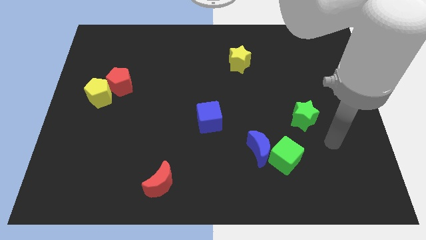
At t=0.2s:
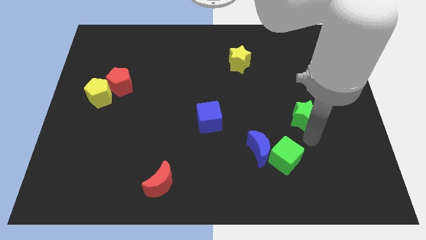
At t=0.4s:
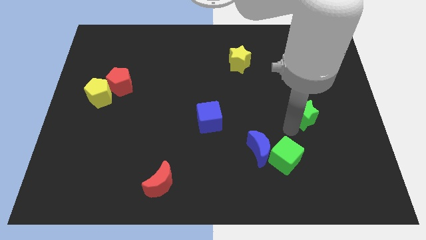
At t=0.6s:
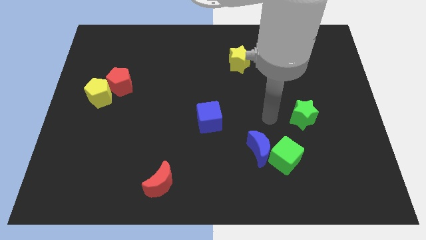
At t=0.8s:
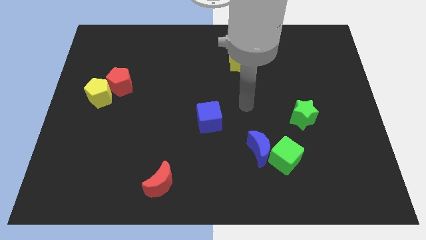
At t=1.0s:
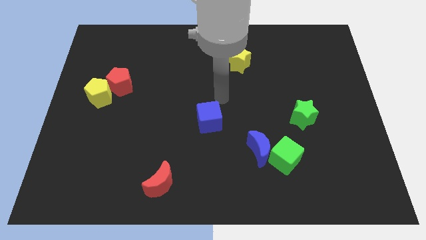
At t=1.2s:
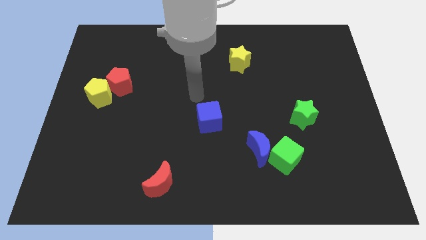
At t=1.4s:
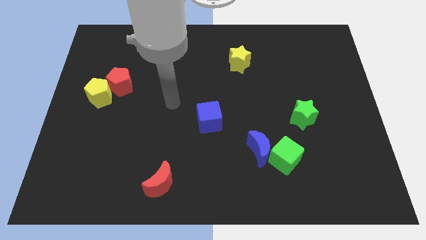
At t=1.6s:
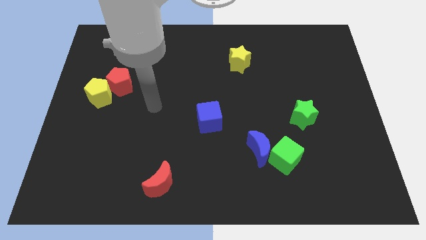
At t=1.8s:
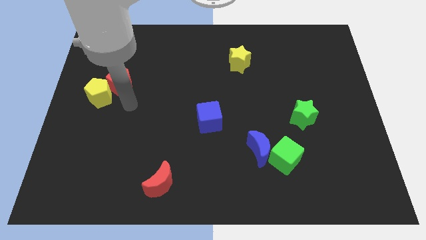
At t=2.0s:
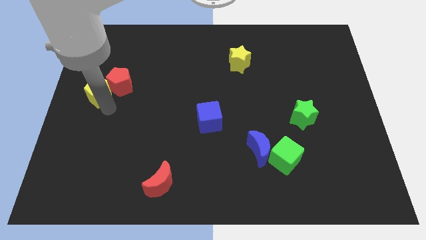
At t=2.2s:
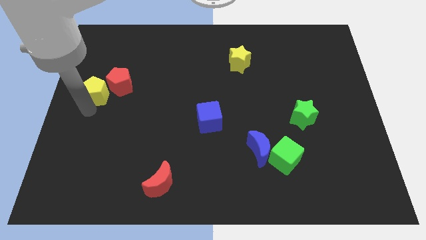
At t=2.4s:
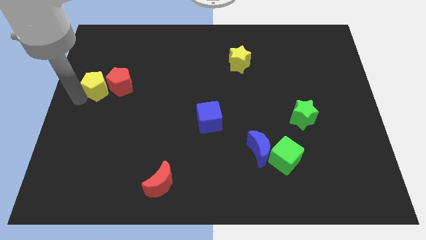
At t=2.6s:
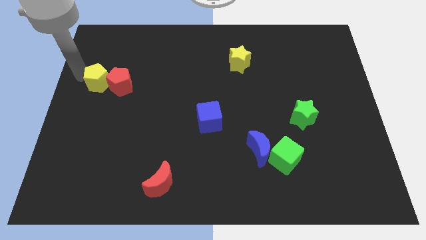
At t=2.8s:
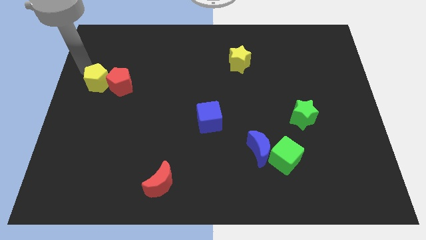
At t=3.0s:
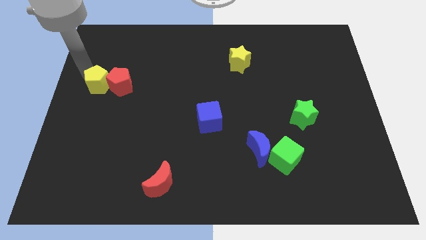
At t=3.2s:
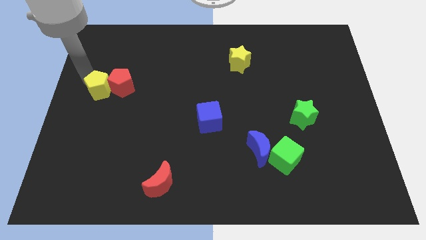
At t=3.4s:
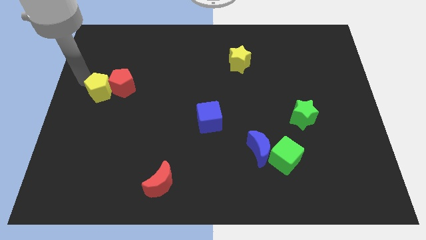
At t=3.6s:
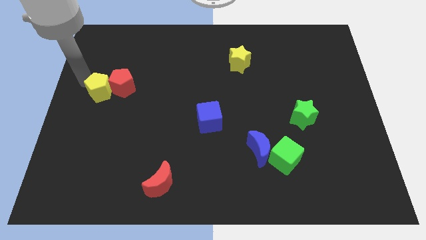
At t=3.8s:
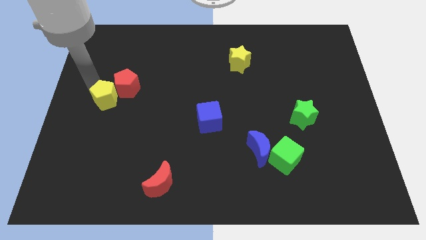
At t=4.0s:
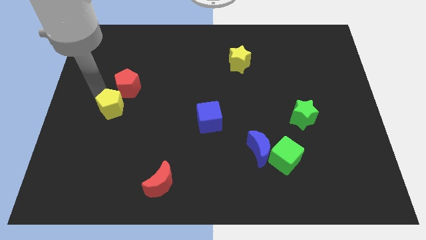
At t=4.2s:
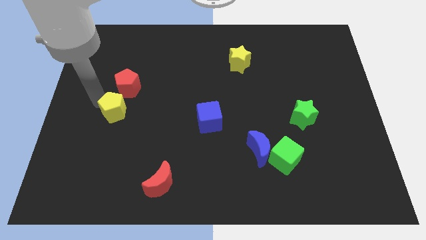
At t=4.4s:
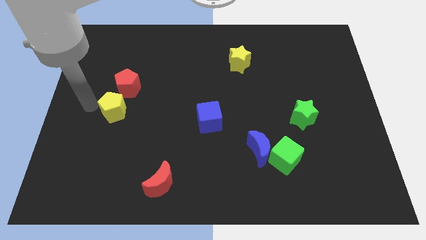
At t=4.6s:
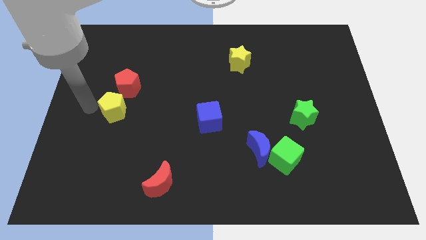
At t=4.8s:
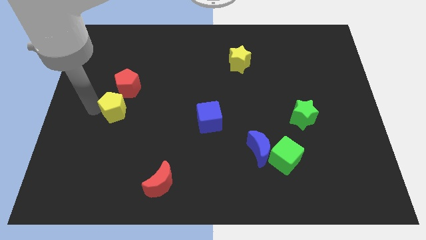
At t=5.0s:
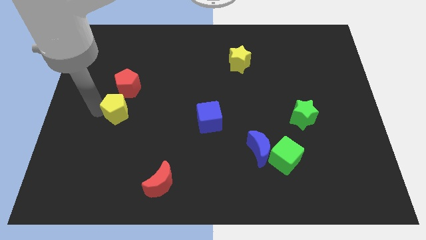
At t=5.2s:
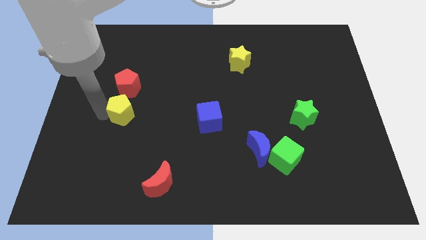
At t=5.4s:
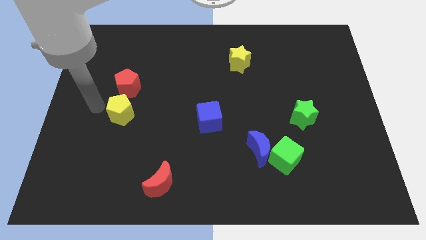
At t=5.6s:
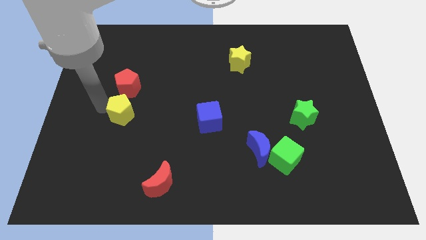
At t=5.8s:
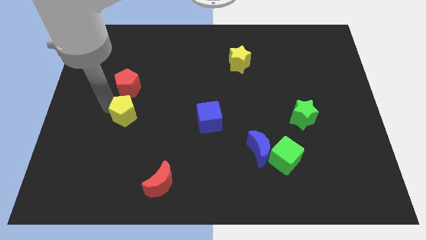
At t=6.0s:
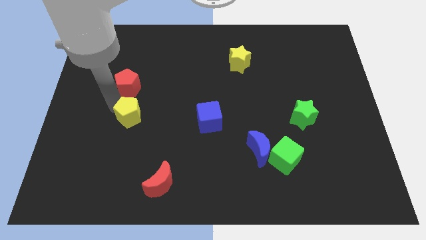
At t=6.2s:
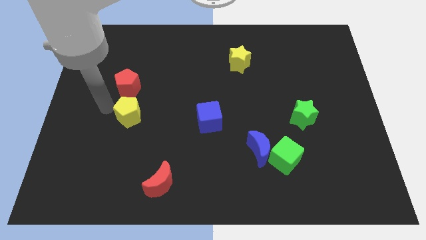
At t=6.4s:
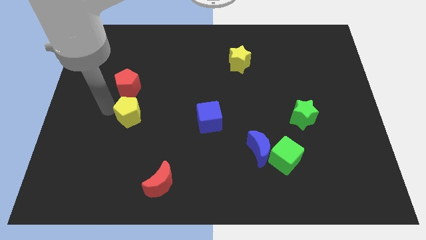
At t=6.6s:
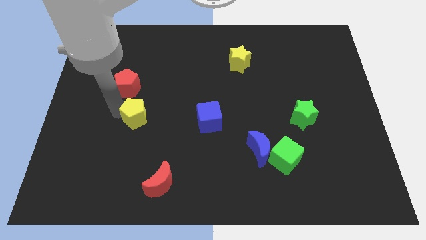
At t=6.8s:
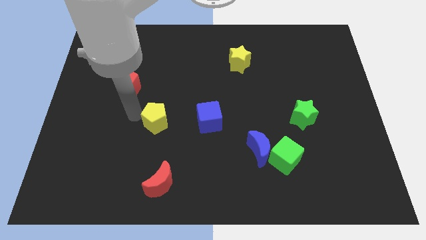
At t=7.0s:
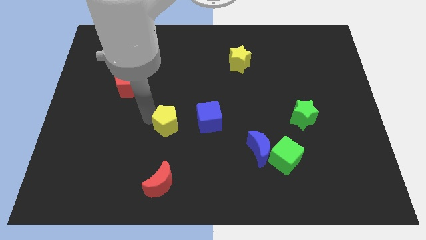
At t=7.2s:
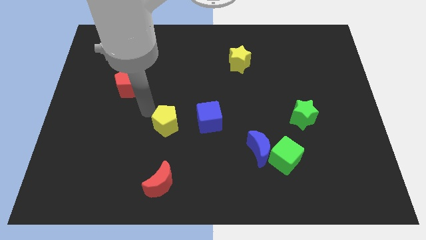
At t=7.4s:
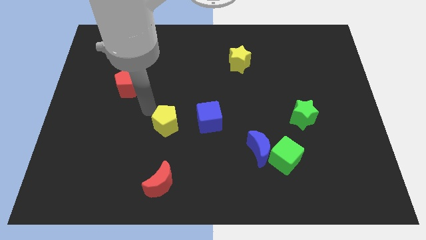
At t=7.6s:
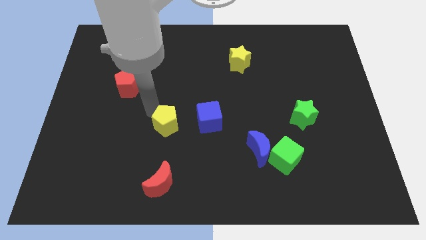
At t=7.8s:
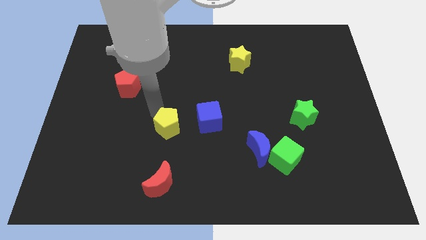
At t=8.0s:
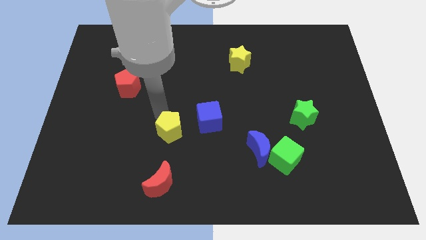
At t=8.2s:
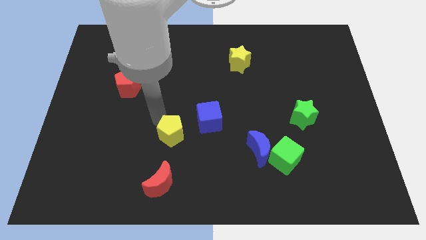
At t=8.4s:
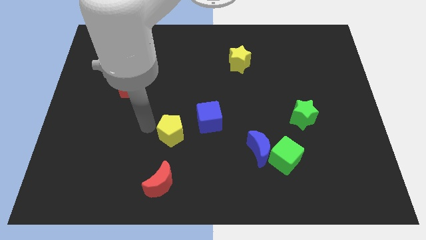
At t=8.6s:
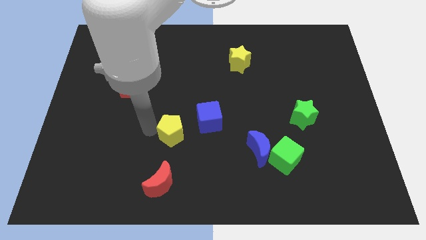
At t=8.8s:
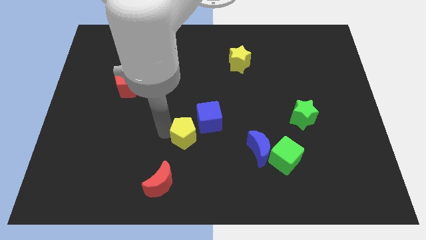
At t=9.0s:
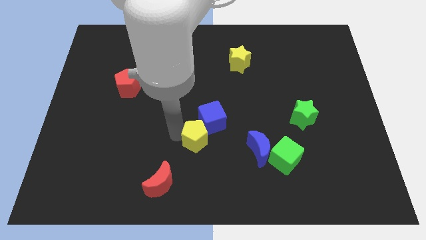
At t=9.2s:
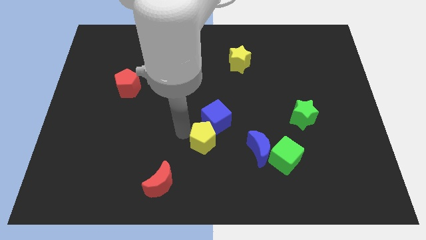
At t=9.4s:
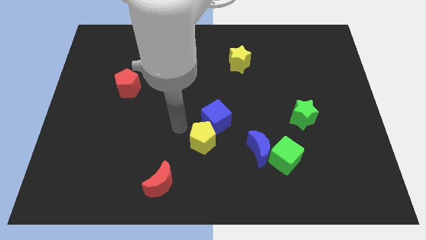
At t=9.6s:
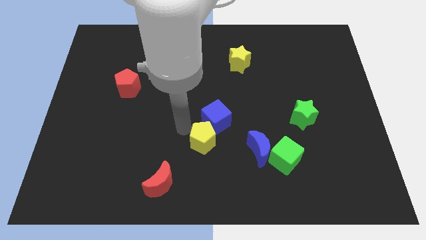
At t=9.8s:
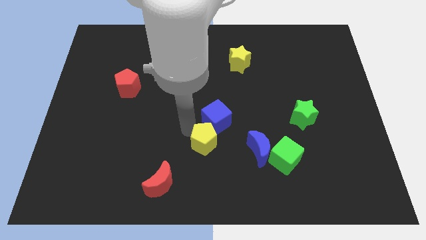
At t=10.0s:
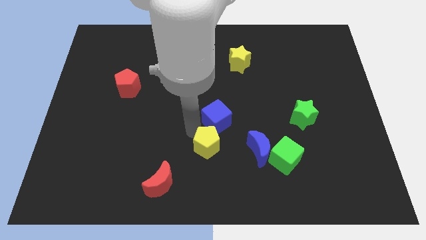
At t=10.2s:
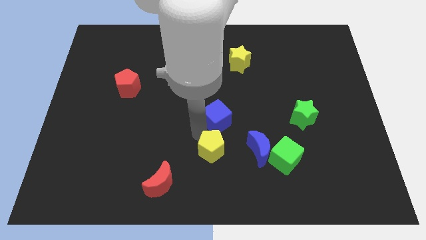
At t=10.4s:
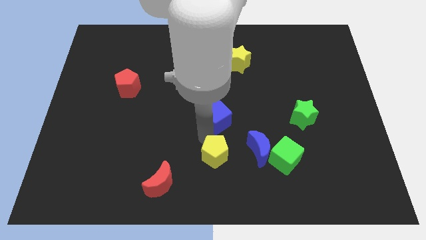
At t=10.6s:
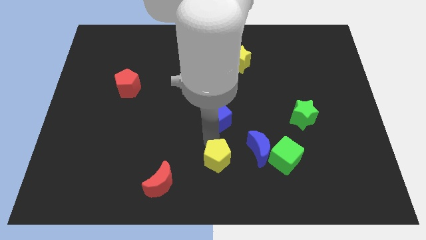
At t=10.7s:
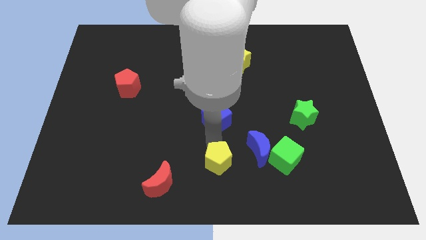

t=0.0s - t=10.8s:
slide the yellow pentagon to the bottom left of the blue moon

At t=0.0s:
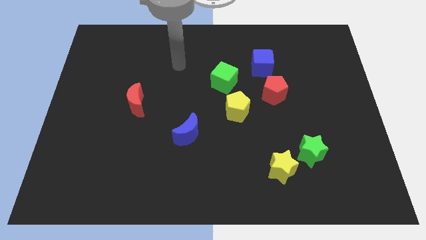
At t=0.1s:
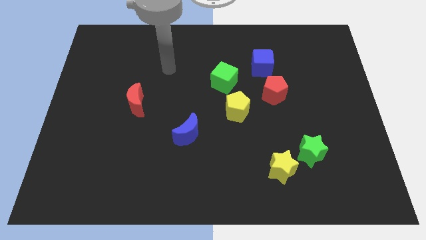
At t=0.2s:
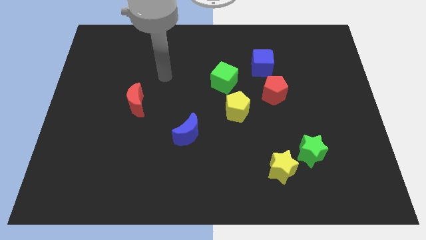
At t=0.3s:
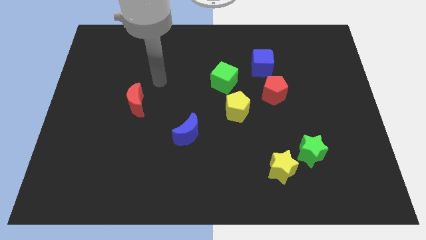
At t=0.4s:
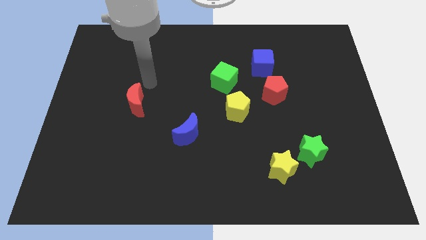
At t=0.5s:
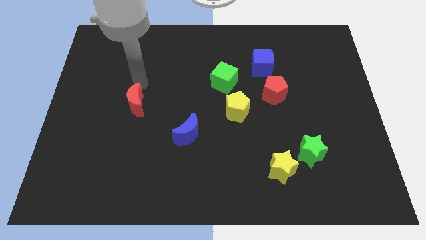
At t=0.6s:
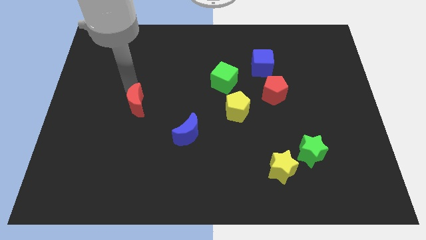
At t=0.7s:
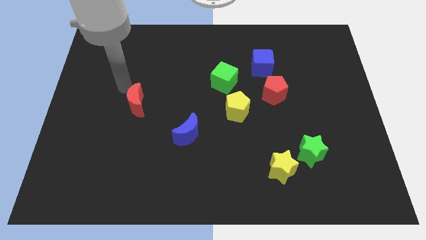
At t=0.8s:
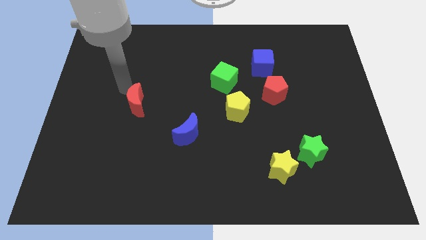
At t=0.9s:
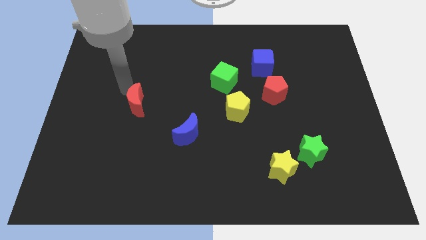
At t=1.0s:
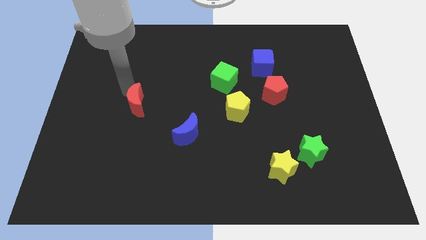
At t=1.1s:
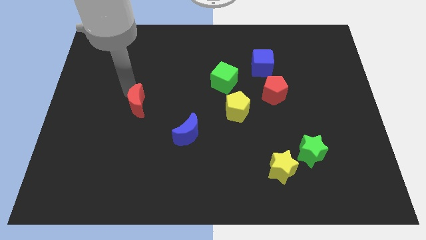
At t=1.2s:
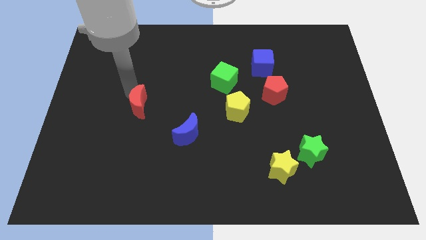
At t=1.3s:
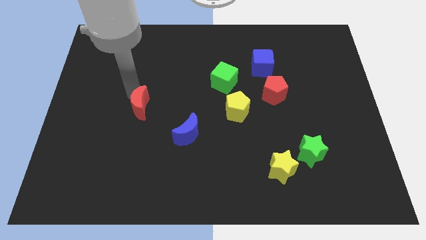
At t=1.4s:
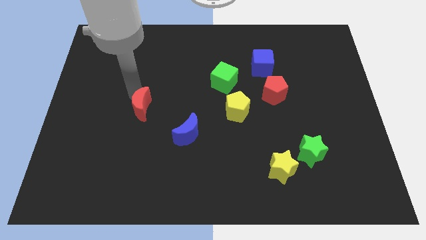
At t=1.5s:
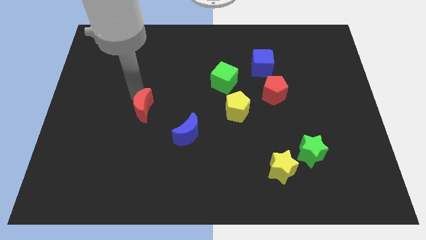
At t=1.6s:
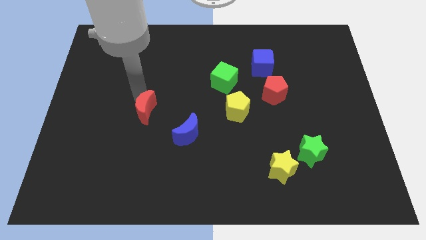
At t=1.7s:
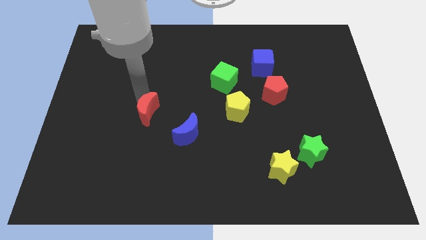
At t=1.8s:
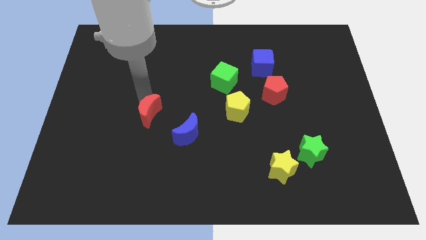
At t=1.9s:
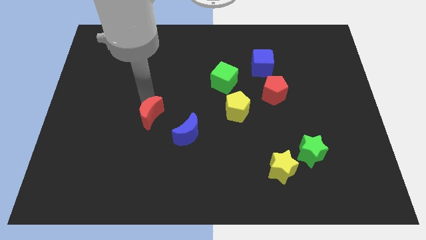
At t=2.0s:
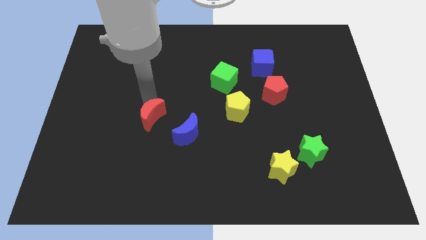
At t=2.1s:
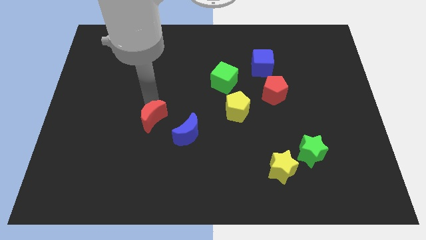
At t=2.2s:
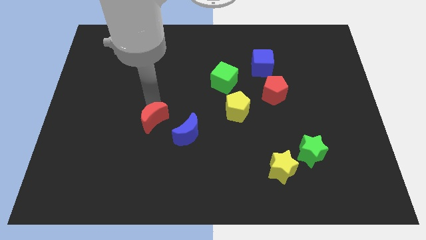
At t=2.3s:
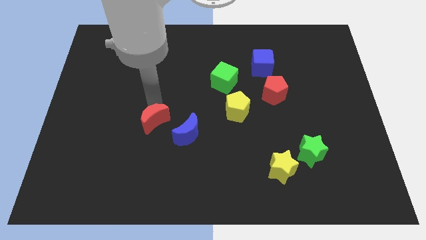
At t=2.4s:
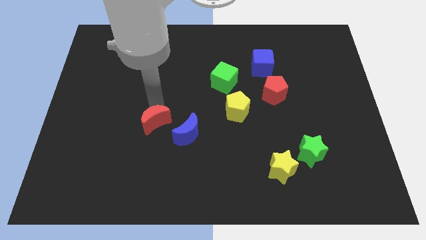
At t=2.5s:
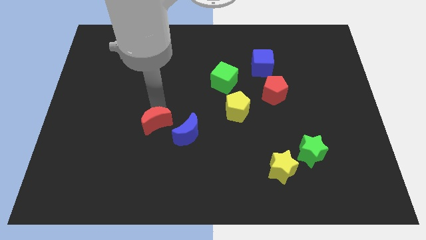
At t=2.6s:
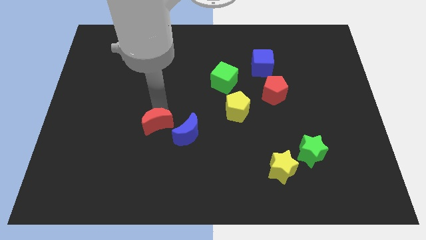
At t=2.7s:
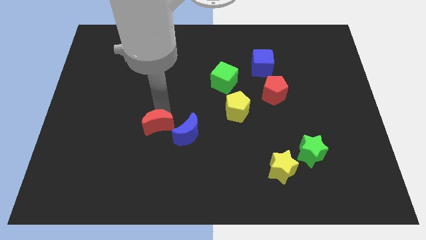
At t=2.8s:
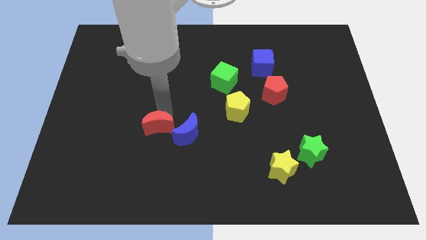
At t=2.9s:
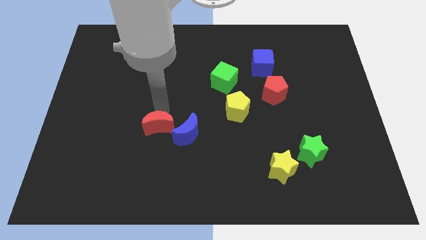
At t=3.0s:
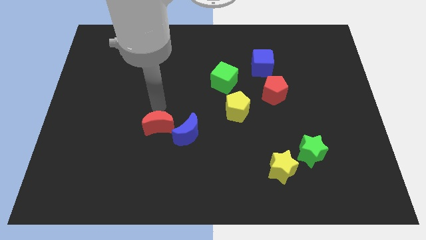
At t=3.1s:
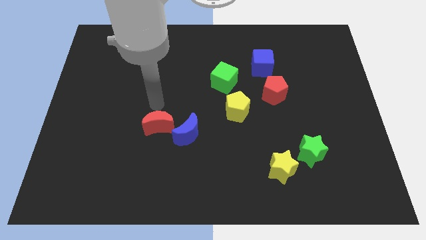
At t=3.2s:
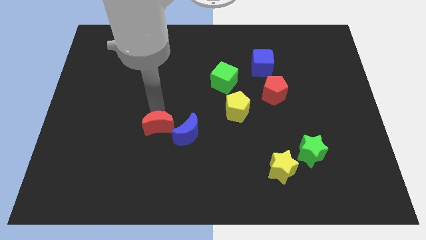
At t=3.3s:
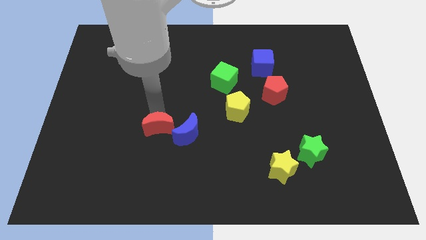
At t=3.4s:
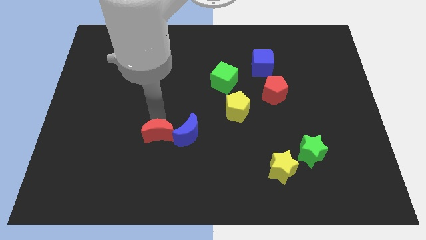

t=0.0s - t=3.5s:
move the red moon to the bottom left of the blue moon
